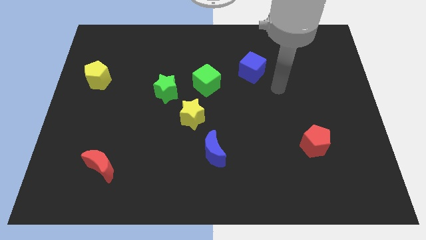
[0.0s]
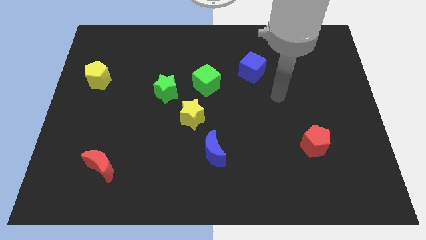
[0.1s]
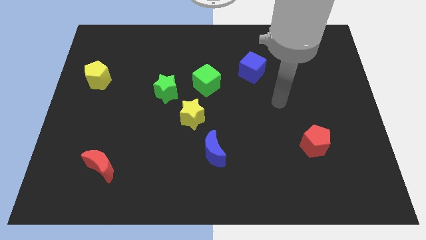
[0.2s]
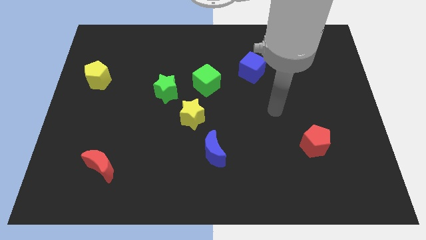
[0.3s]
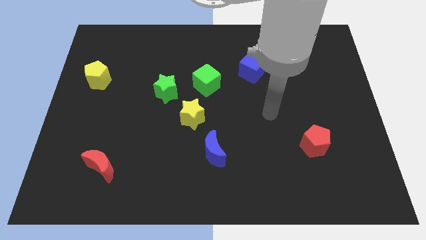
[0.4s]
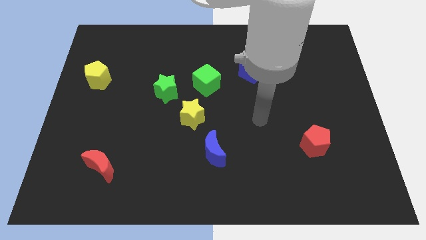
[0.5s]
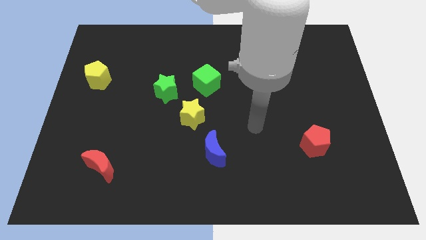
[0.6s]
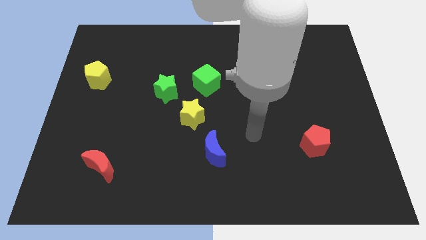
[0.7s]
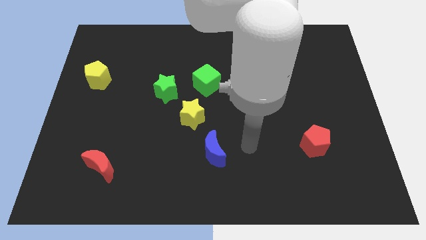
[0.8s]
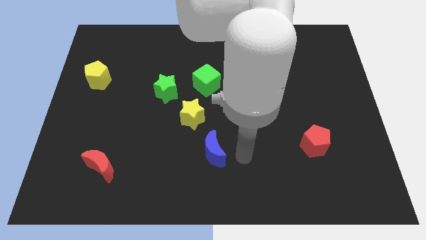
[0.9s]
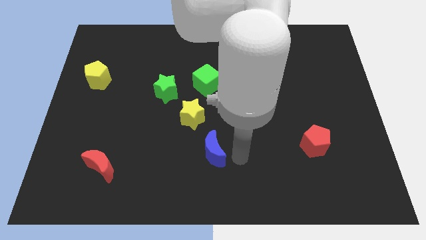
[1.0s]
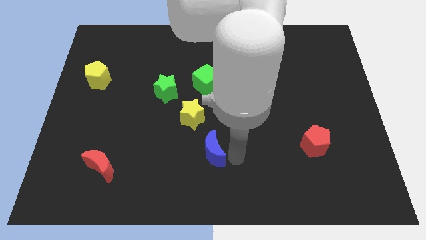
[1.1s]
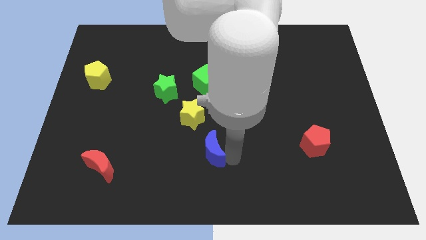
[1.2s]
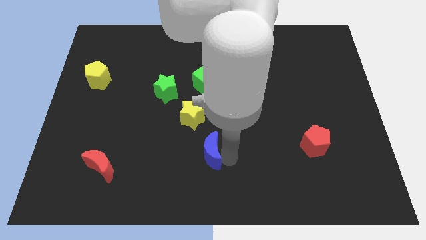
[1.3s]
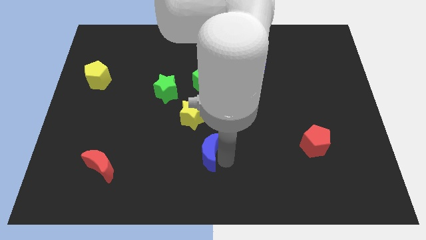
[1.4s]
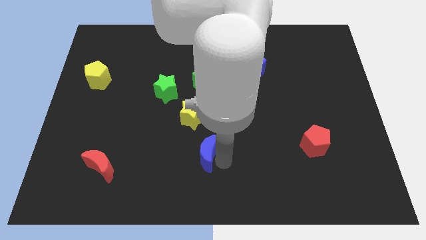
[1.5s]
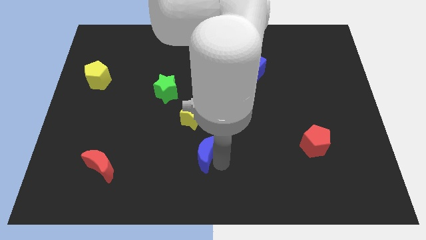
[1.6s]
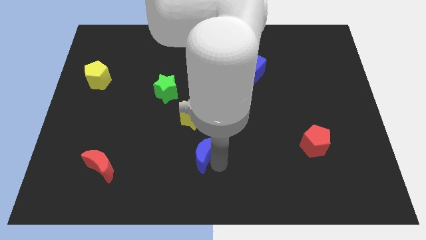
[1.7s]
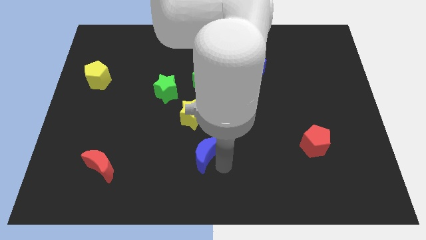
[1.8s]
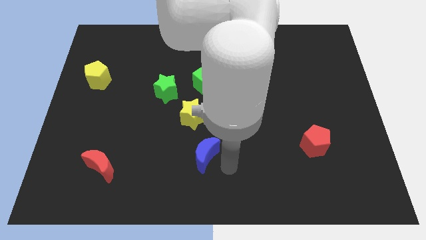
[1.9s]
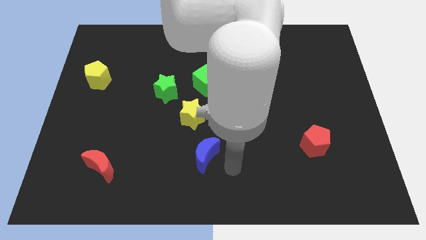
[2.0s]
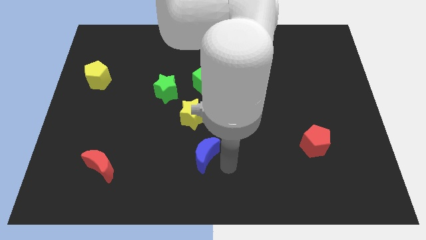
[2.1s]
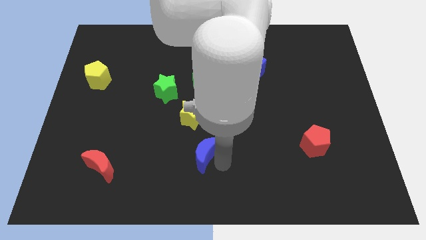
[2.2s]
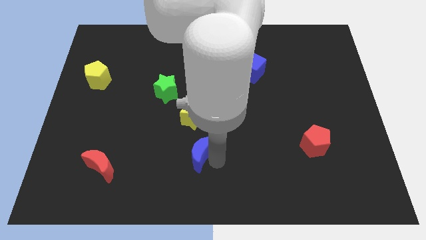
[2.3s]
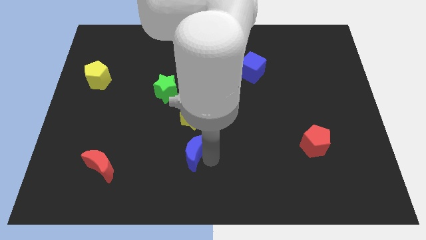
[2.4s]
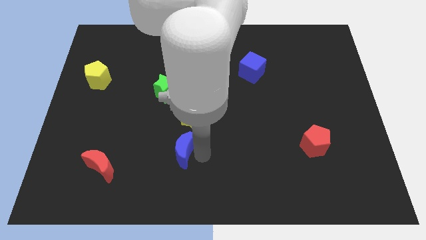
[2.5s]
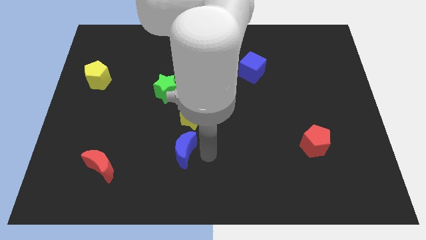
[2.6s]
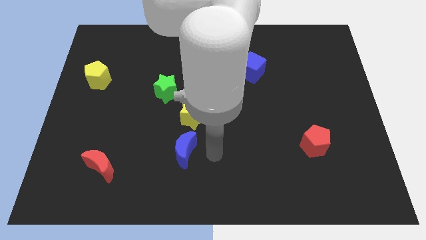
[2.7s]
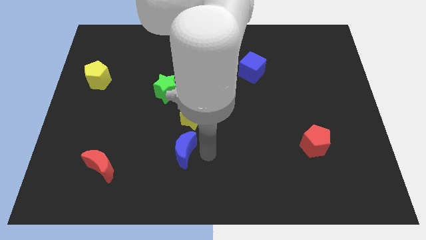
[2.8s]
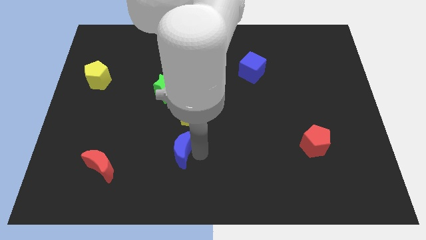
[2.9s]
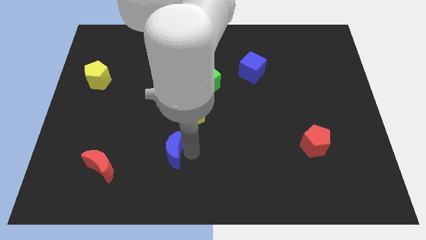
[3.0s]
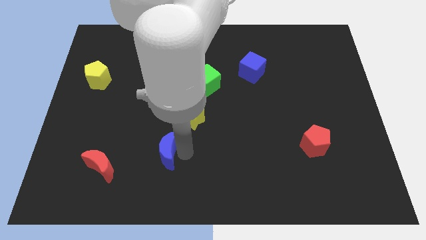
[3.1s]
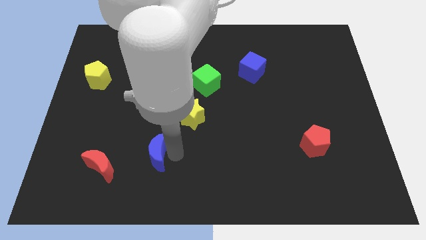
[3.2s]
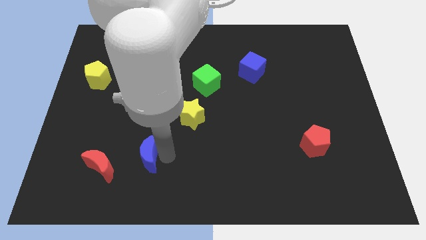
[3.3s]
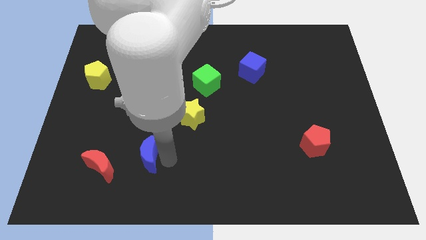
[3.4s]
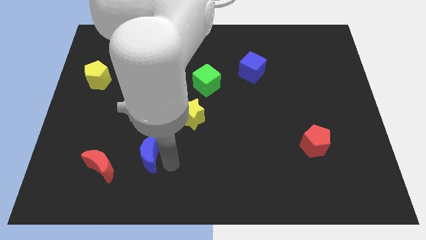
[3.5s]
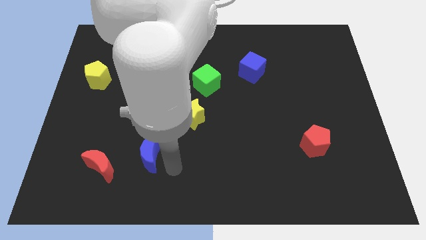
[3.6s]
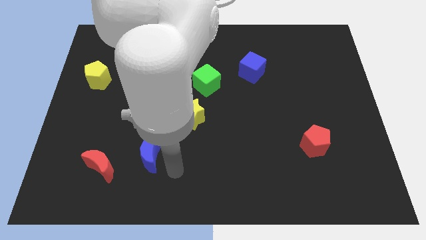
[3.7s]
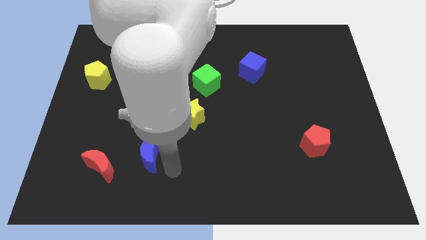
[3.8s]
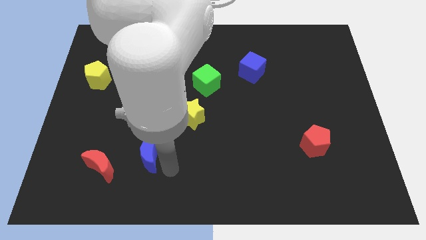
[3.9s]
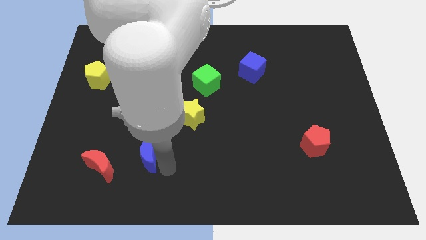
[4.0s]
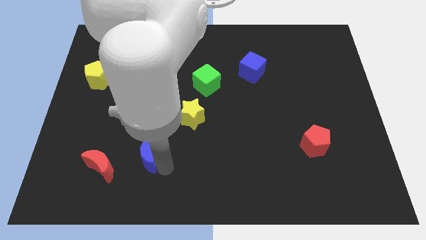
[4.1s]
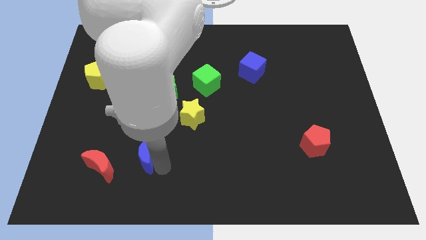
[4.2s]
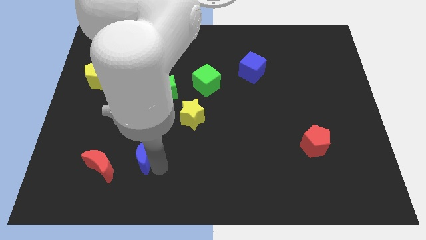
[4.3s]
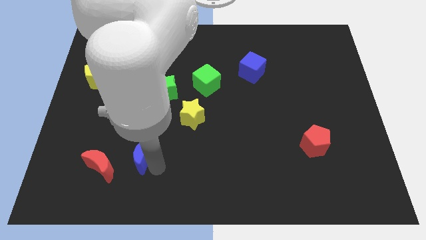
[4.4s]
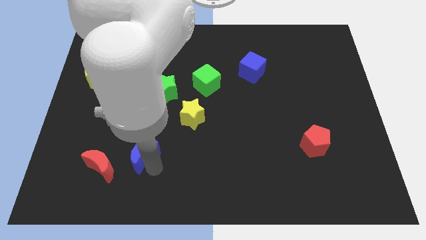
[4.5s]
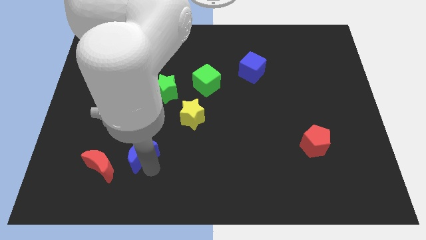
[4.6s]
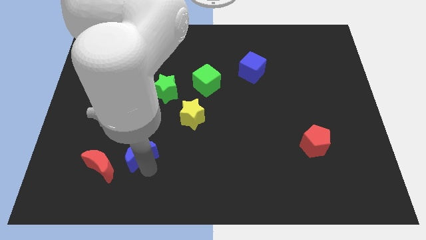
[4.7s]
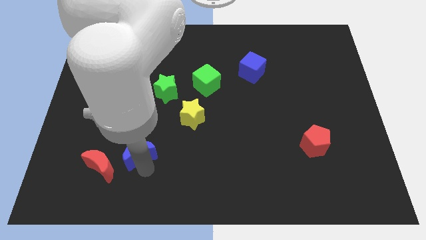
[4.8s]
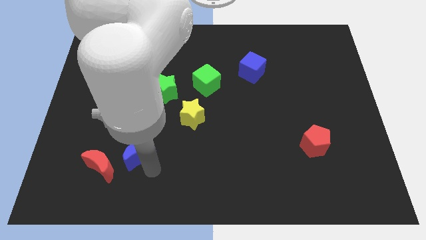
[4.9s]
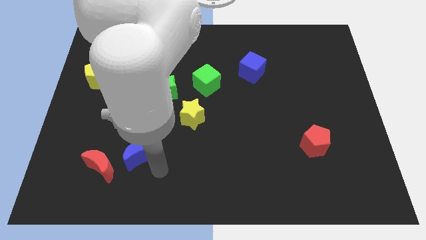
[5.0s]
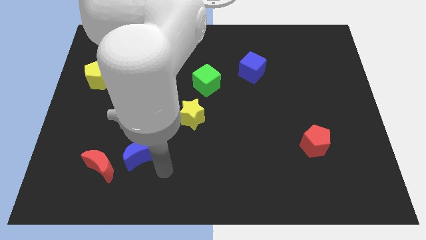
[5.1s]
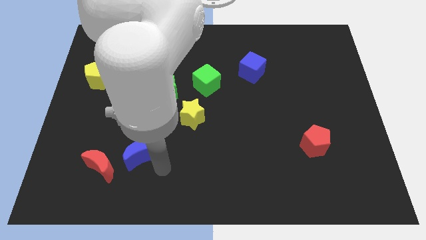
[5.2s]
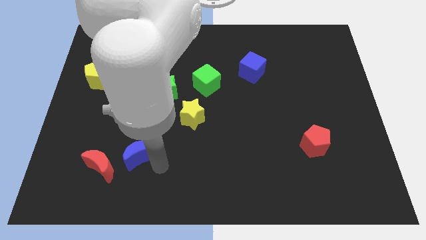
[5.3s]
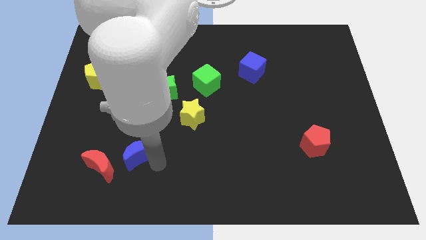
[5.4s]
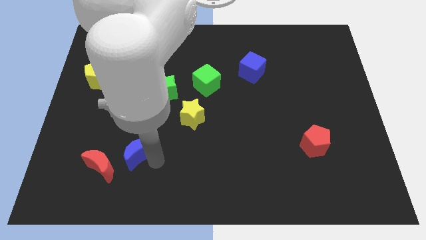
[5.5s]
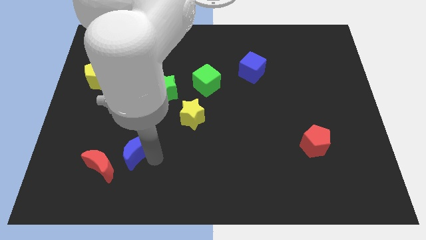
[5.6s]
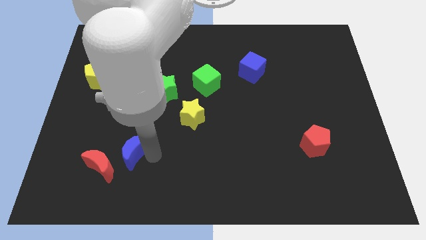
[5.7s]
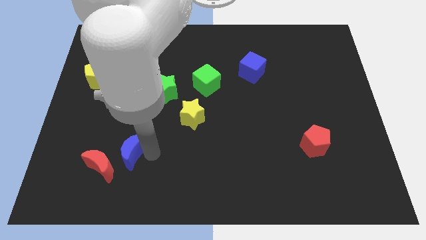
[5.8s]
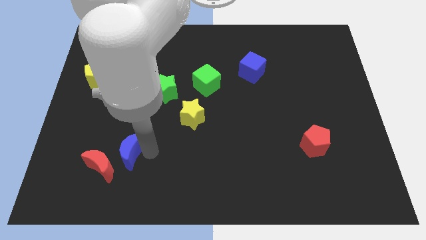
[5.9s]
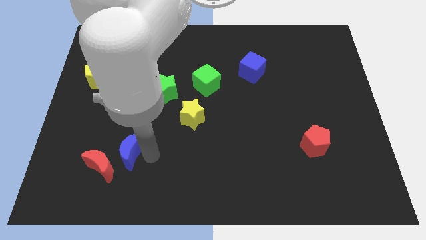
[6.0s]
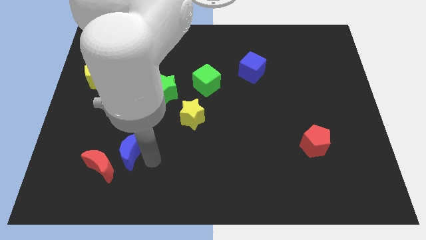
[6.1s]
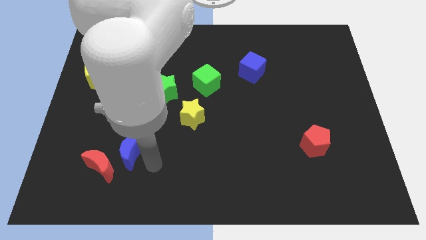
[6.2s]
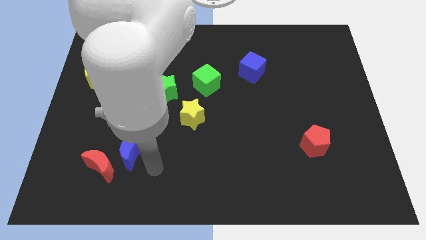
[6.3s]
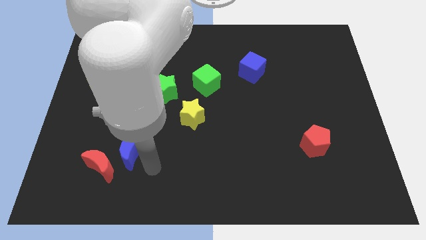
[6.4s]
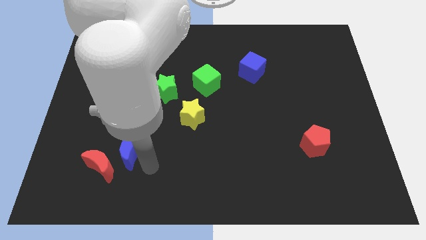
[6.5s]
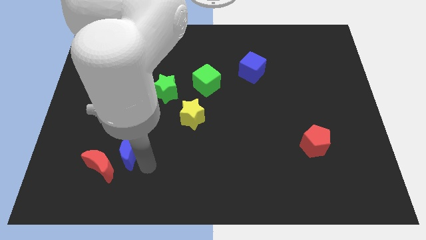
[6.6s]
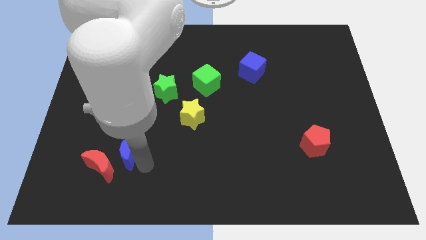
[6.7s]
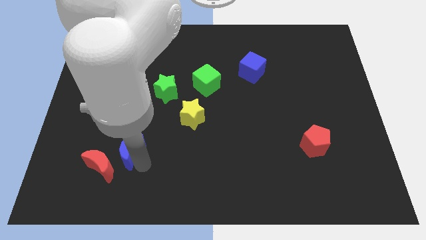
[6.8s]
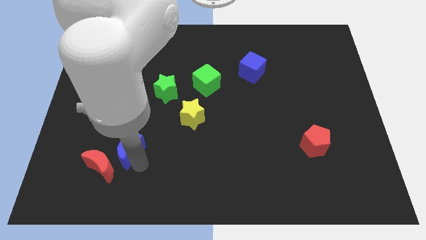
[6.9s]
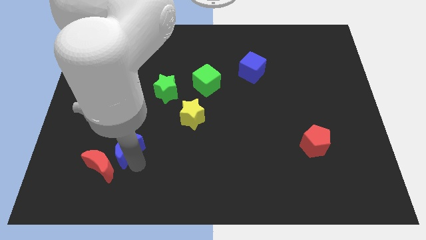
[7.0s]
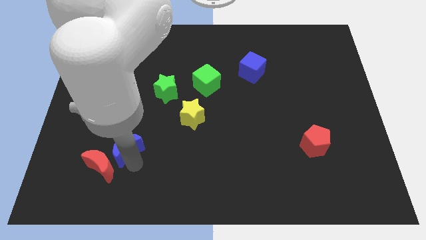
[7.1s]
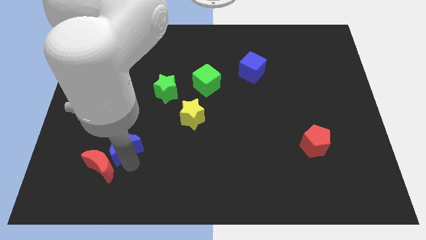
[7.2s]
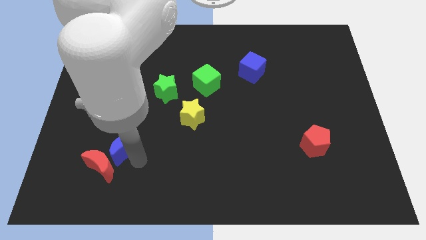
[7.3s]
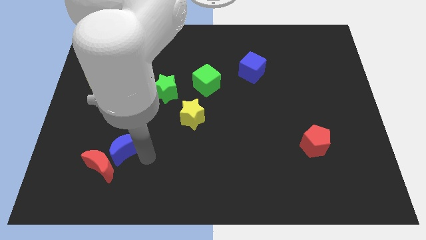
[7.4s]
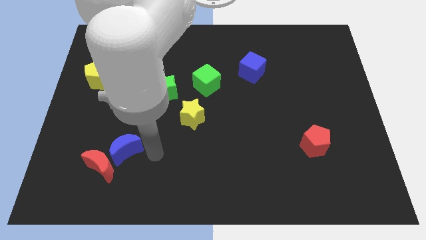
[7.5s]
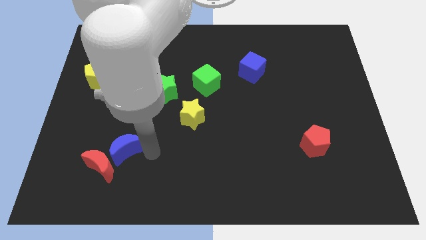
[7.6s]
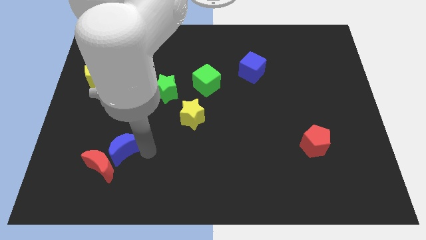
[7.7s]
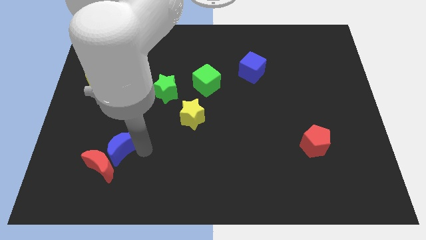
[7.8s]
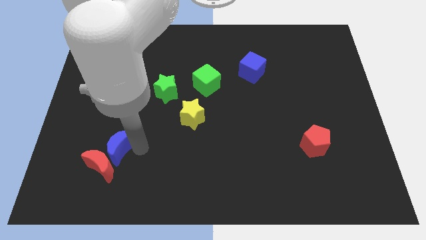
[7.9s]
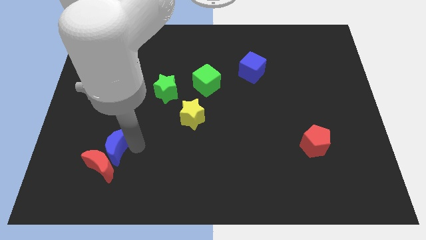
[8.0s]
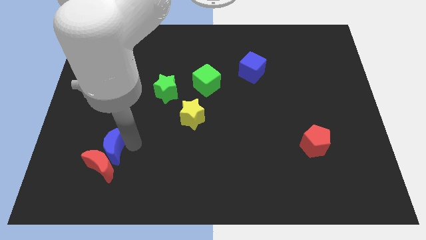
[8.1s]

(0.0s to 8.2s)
push the blue moon to the top left of the red moon
